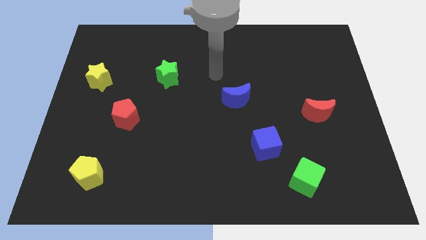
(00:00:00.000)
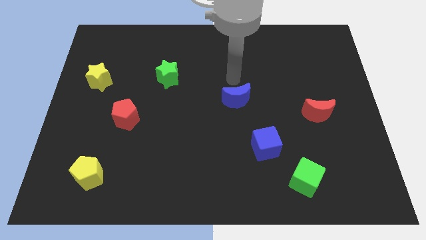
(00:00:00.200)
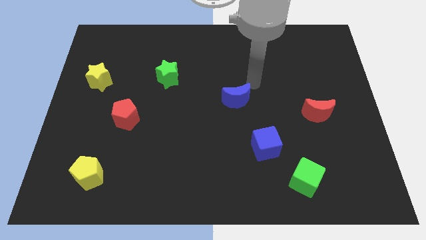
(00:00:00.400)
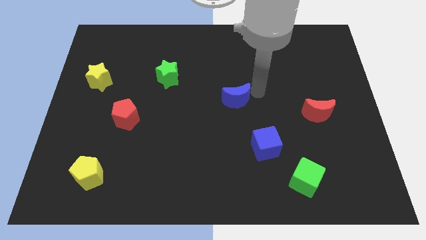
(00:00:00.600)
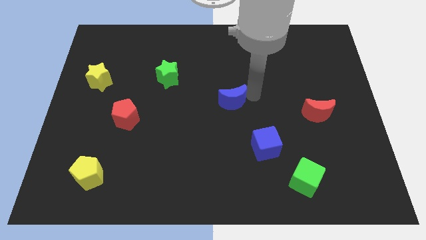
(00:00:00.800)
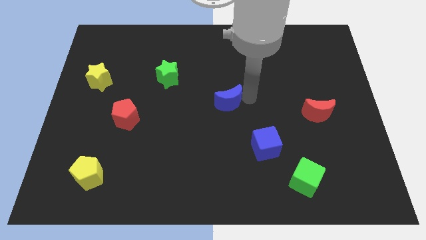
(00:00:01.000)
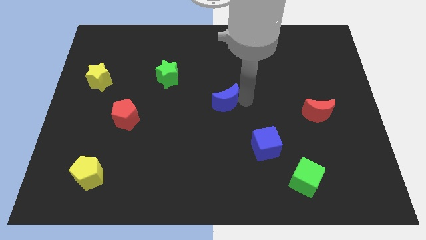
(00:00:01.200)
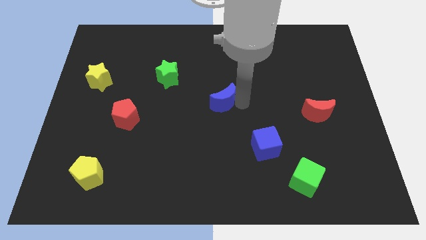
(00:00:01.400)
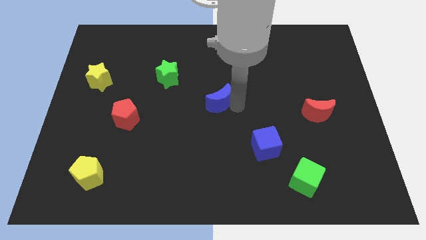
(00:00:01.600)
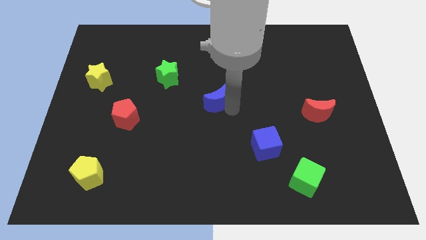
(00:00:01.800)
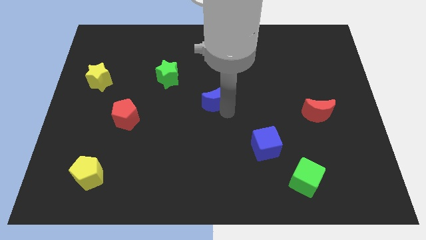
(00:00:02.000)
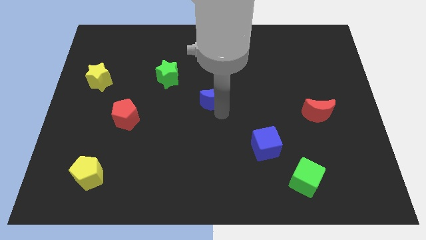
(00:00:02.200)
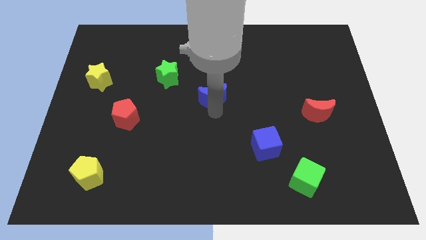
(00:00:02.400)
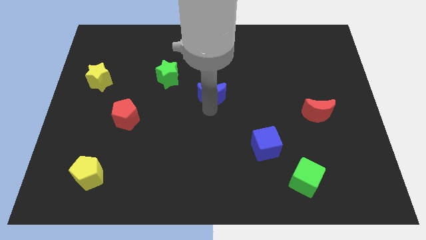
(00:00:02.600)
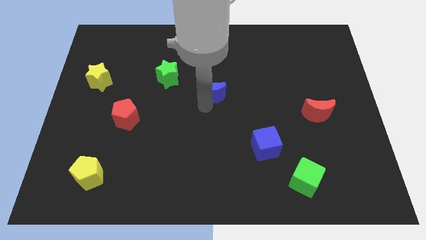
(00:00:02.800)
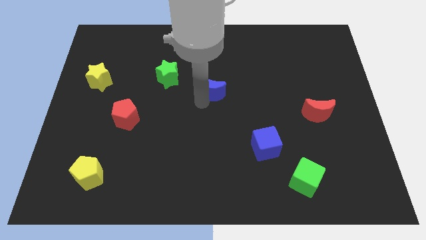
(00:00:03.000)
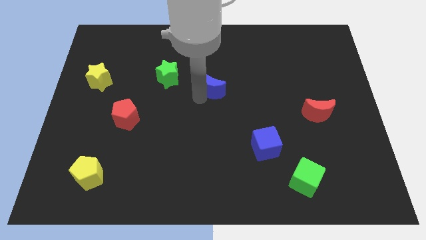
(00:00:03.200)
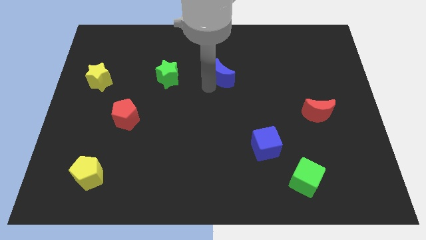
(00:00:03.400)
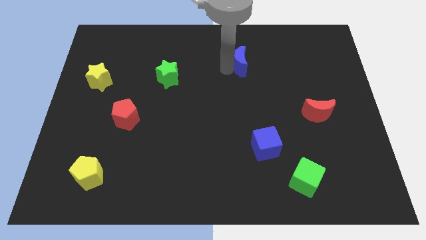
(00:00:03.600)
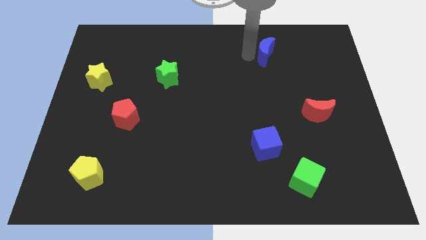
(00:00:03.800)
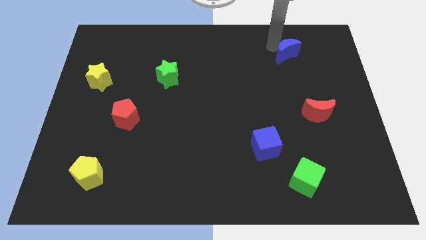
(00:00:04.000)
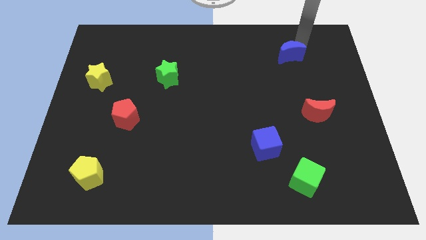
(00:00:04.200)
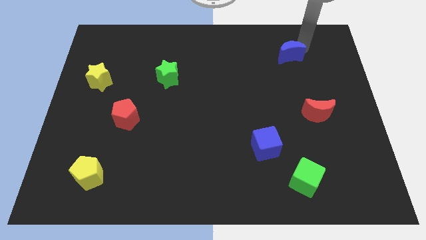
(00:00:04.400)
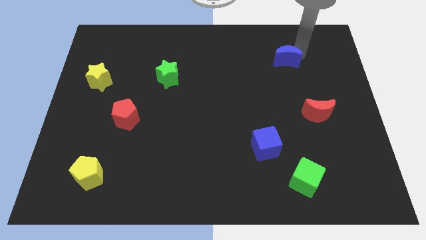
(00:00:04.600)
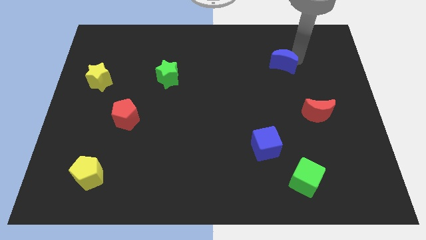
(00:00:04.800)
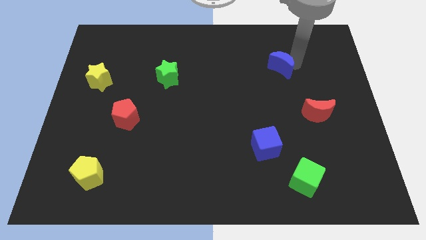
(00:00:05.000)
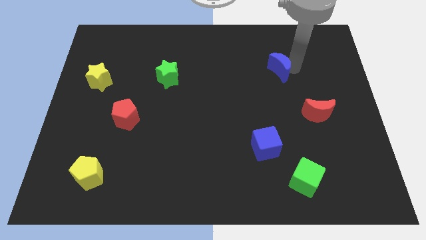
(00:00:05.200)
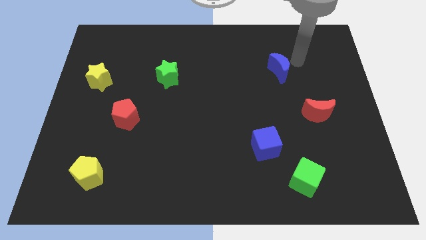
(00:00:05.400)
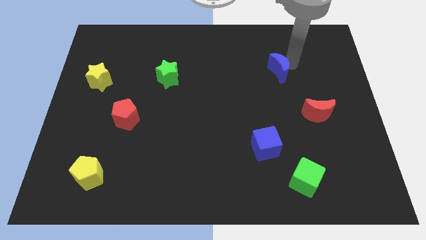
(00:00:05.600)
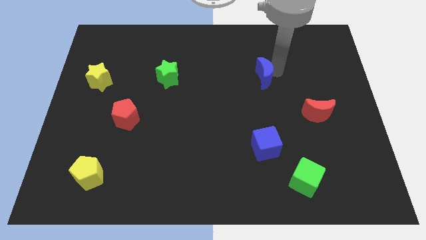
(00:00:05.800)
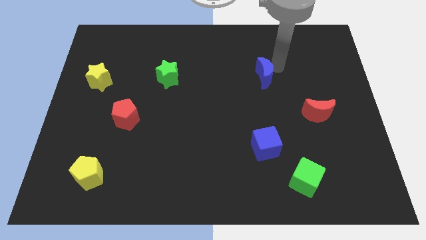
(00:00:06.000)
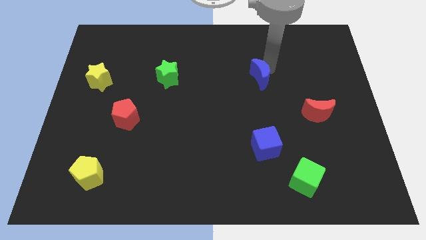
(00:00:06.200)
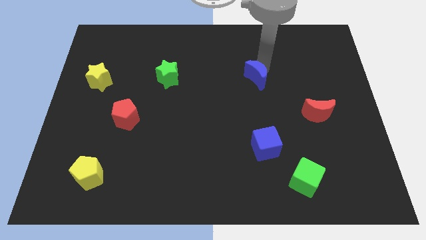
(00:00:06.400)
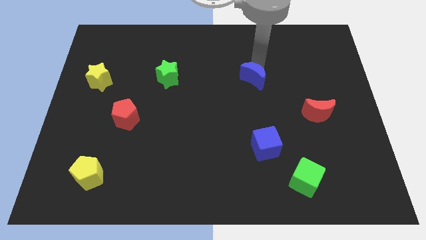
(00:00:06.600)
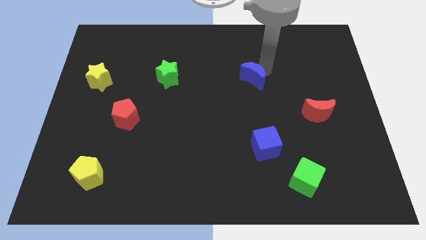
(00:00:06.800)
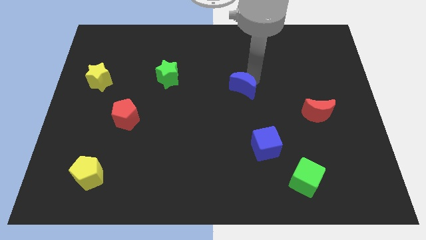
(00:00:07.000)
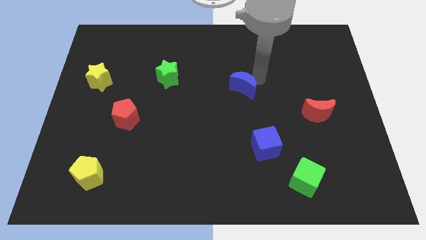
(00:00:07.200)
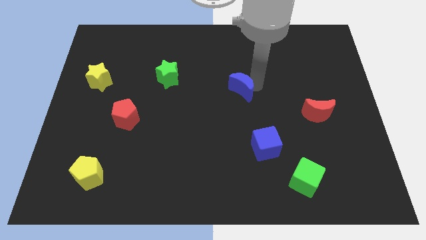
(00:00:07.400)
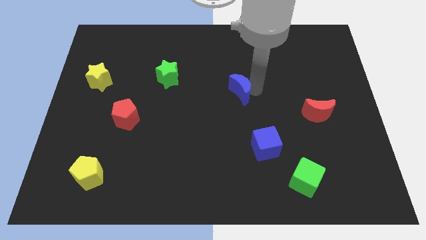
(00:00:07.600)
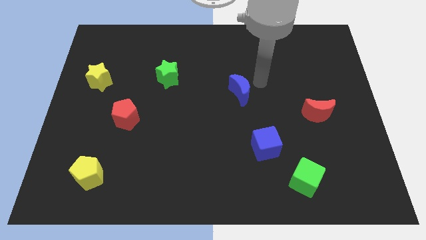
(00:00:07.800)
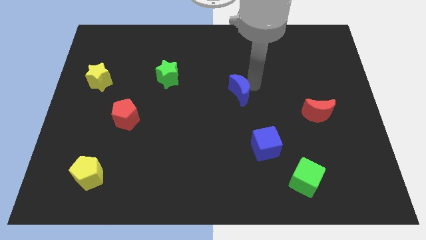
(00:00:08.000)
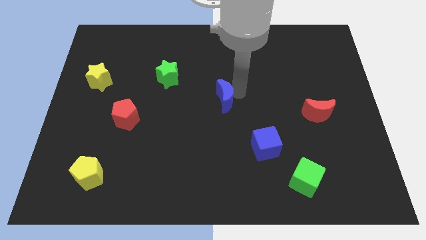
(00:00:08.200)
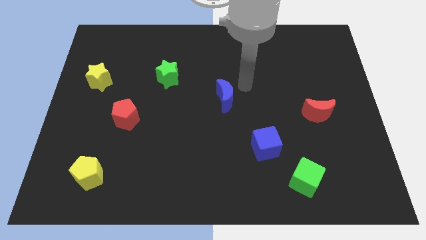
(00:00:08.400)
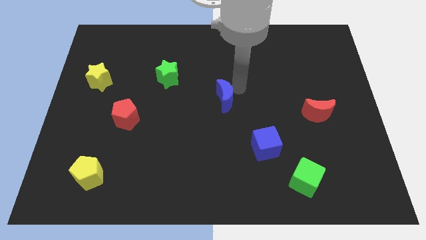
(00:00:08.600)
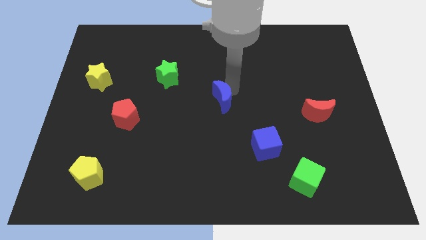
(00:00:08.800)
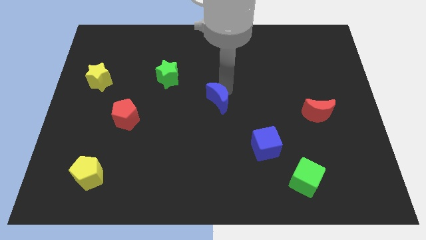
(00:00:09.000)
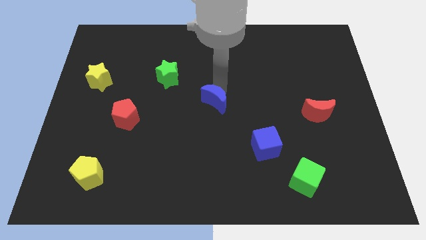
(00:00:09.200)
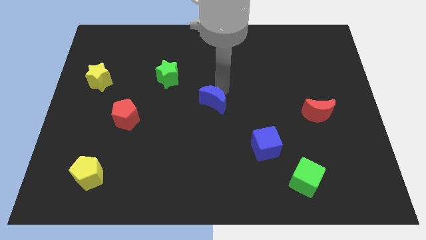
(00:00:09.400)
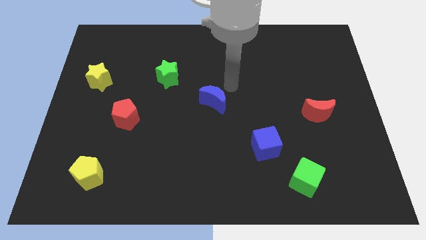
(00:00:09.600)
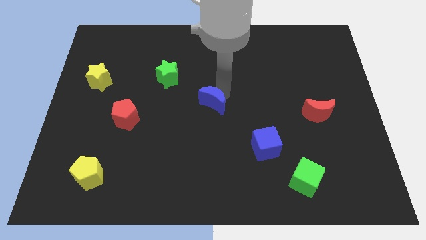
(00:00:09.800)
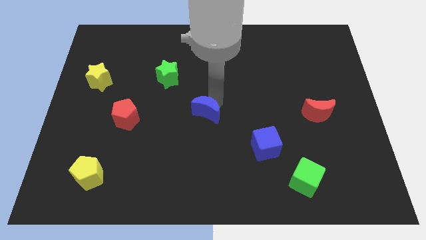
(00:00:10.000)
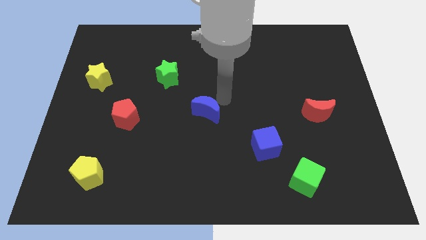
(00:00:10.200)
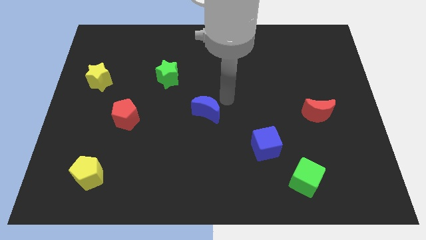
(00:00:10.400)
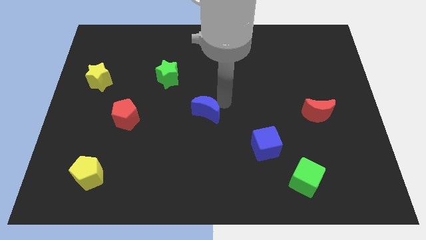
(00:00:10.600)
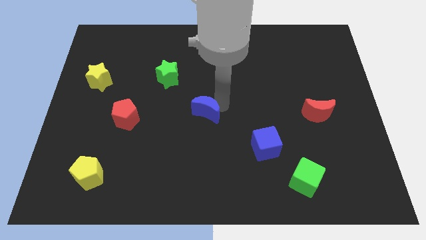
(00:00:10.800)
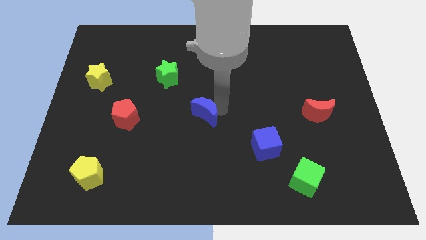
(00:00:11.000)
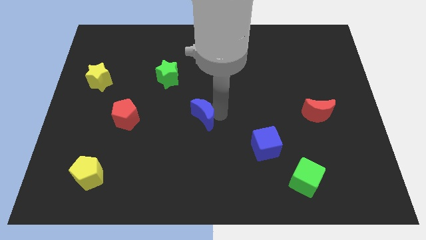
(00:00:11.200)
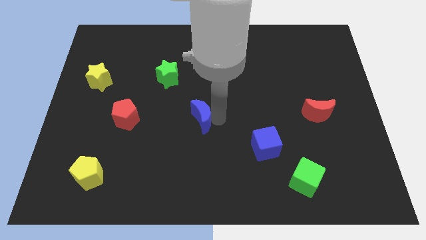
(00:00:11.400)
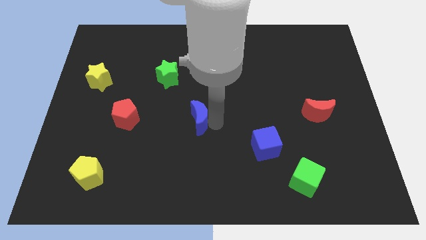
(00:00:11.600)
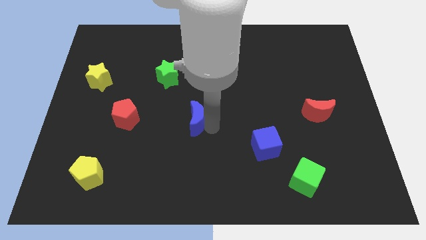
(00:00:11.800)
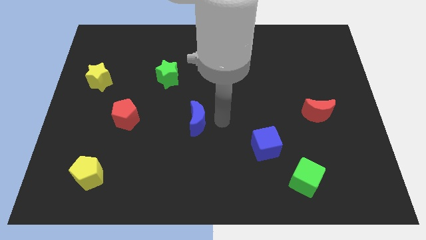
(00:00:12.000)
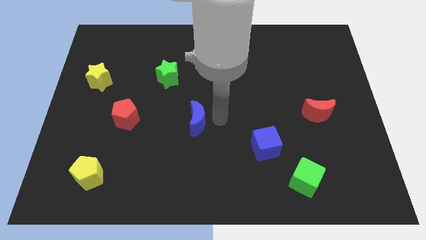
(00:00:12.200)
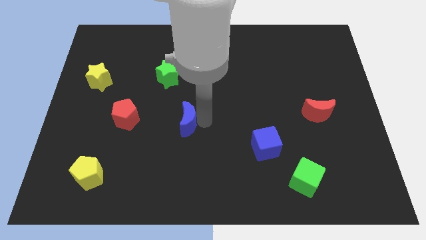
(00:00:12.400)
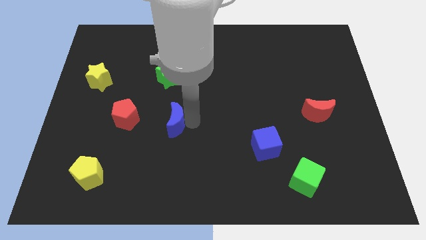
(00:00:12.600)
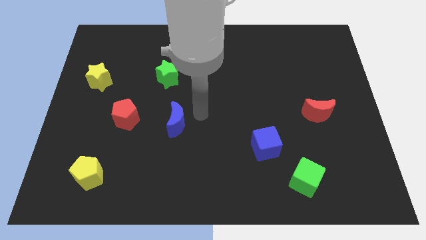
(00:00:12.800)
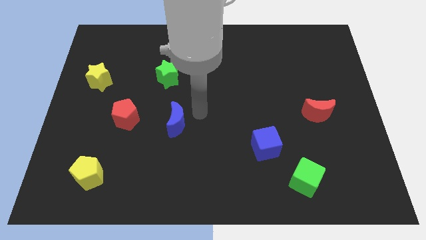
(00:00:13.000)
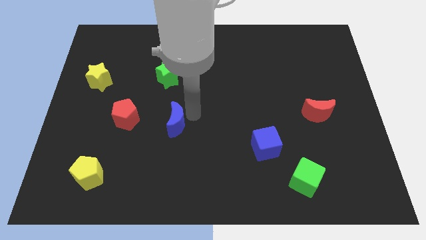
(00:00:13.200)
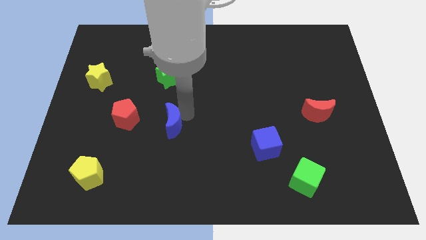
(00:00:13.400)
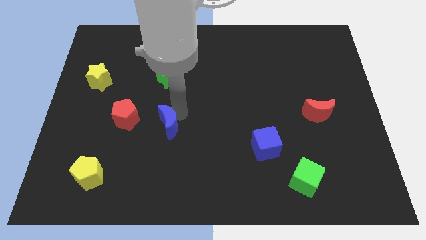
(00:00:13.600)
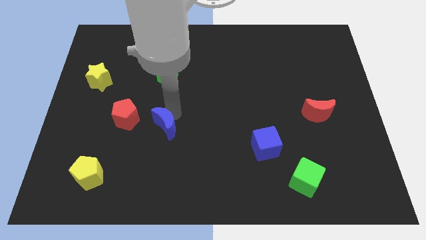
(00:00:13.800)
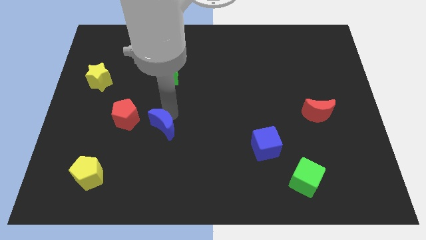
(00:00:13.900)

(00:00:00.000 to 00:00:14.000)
push the blue moon to the bottom right of the red pentagon
